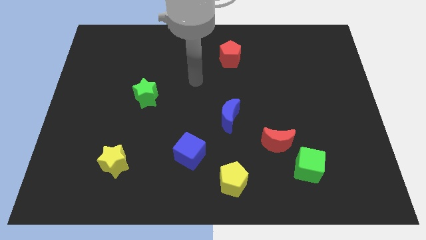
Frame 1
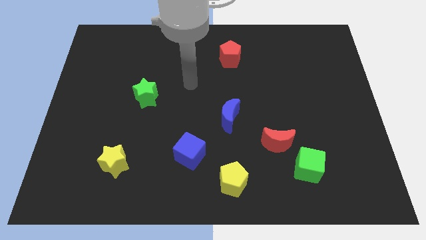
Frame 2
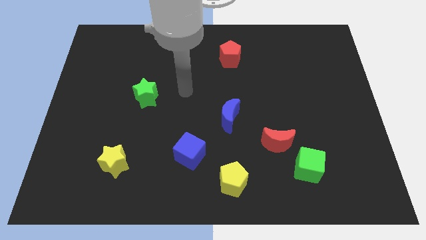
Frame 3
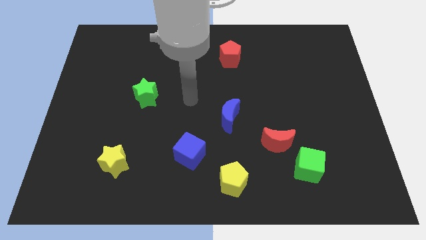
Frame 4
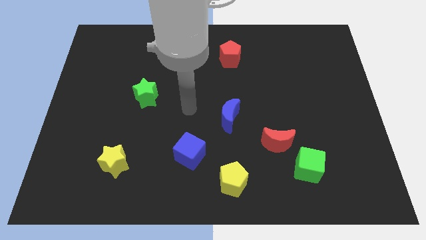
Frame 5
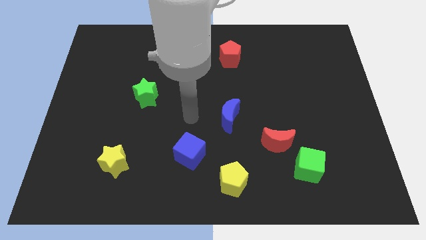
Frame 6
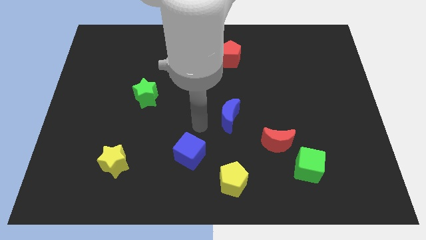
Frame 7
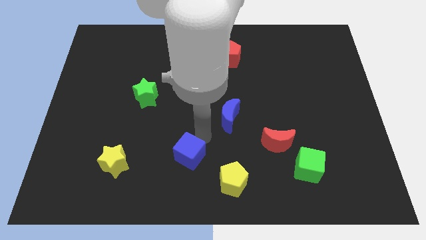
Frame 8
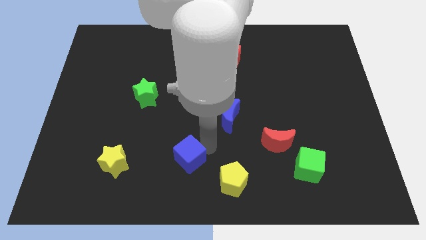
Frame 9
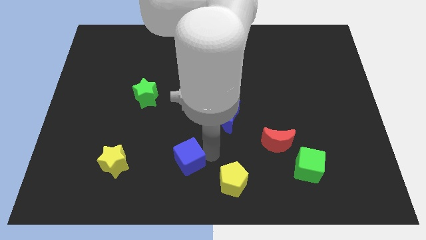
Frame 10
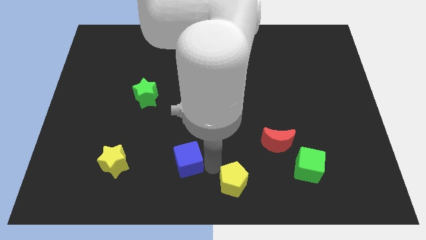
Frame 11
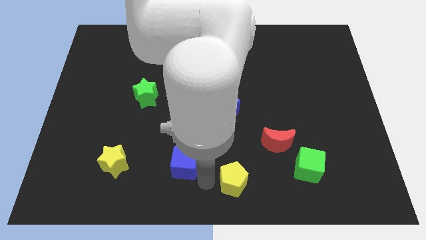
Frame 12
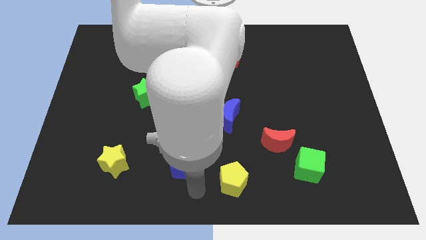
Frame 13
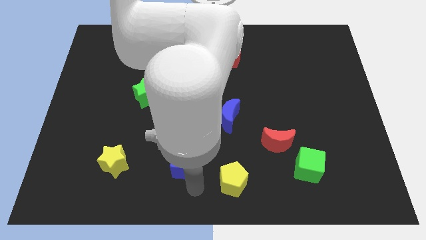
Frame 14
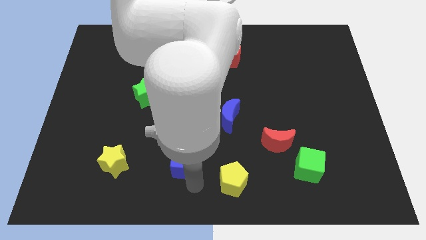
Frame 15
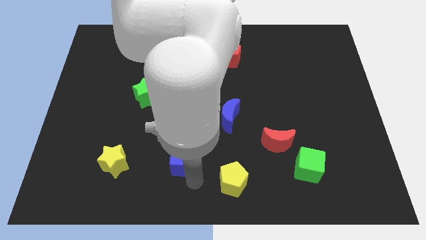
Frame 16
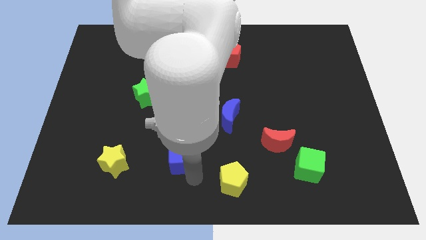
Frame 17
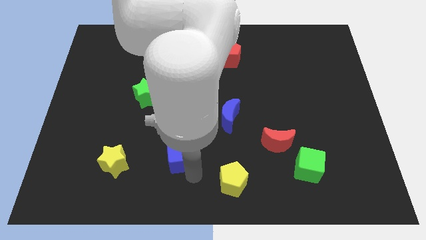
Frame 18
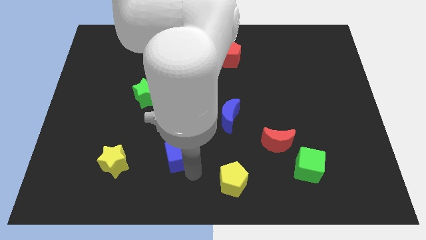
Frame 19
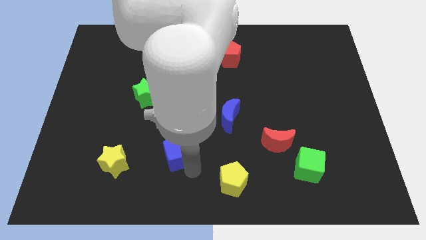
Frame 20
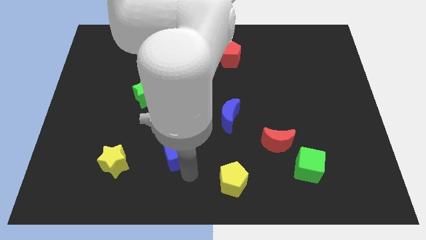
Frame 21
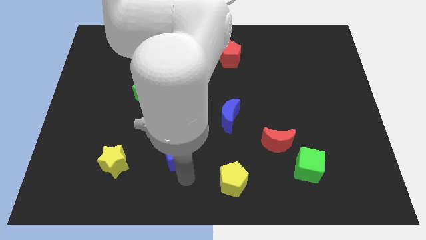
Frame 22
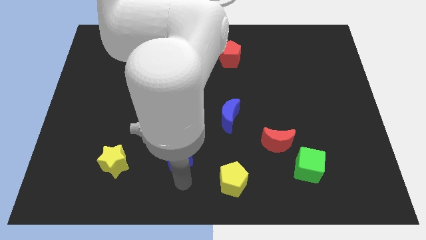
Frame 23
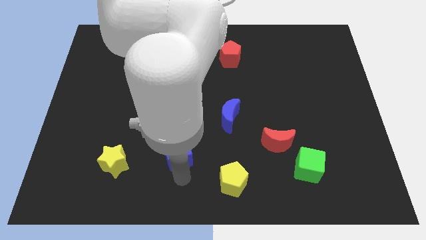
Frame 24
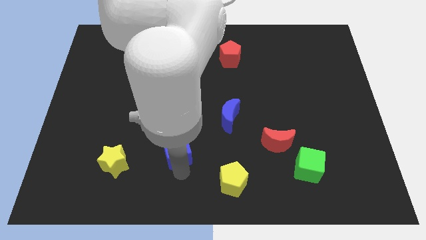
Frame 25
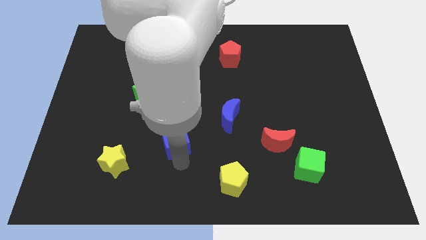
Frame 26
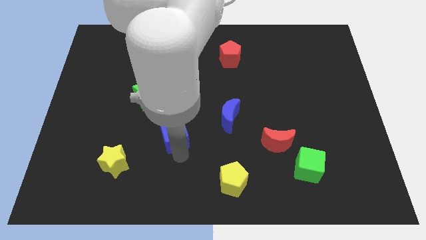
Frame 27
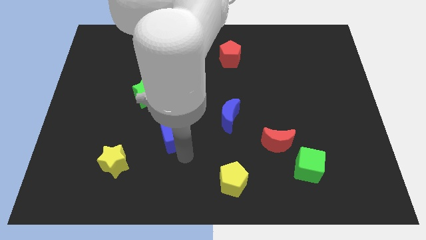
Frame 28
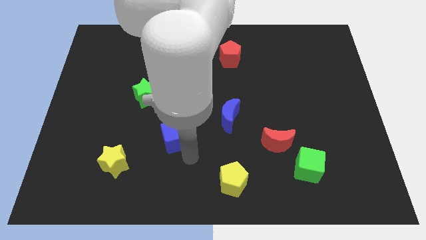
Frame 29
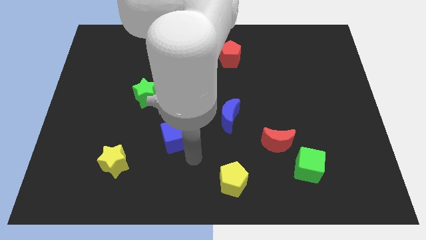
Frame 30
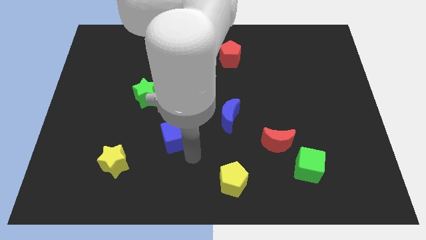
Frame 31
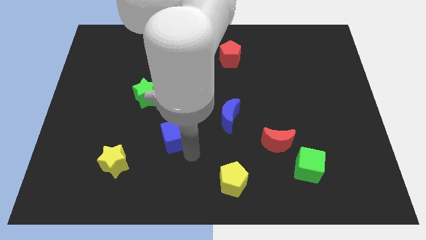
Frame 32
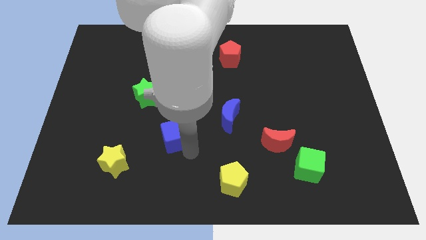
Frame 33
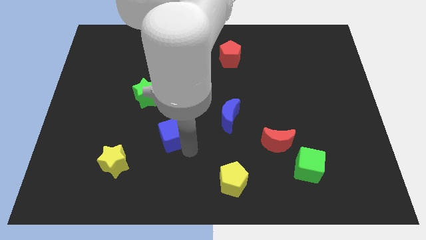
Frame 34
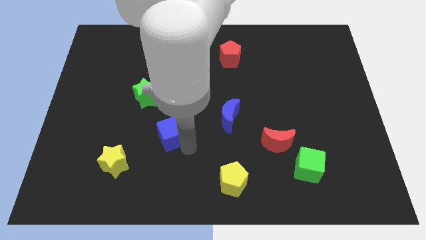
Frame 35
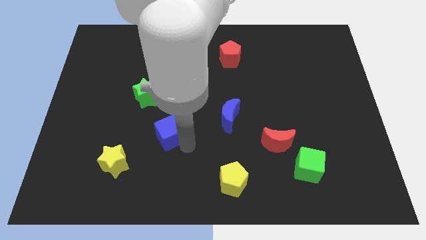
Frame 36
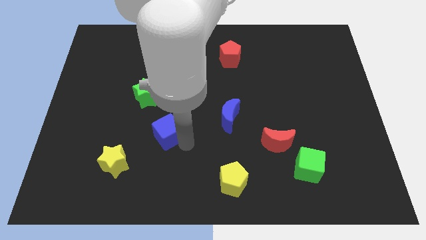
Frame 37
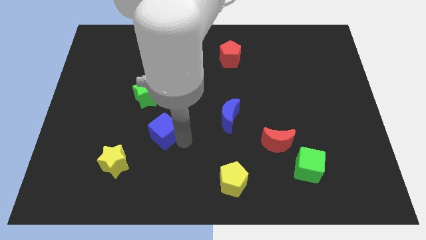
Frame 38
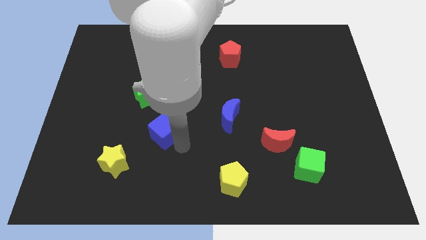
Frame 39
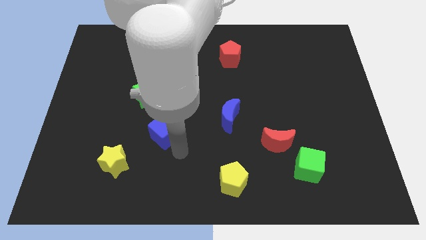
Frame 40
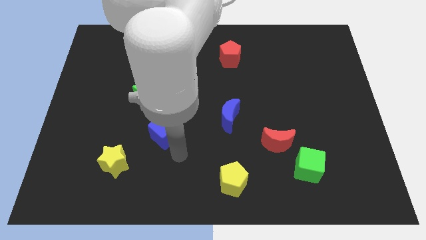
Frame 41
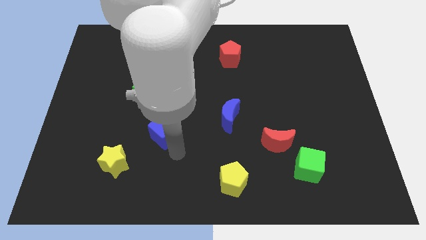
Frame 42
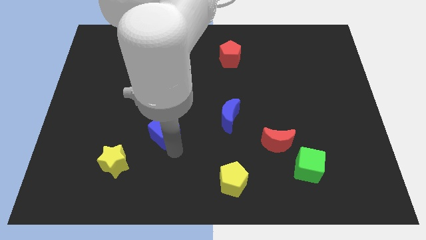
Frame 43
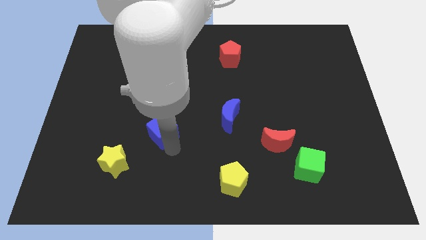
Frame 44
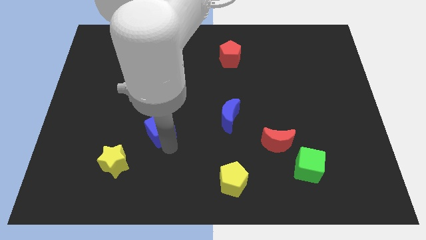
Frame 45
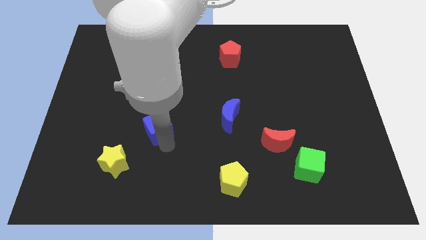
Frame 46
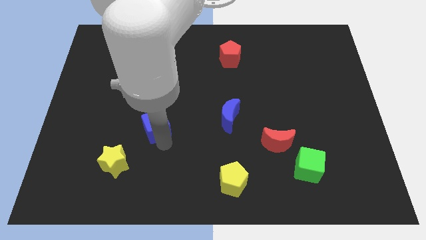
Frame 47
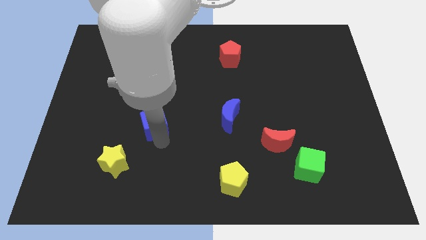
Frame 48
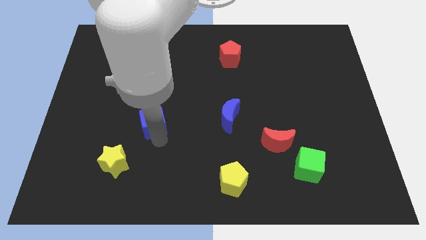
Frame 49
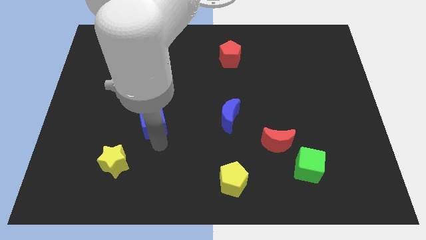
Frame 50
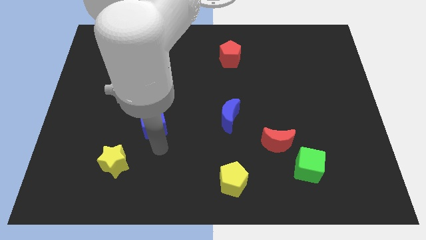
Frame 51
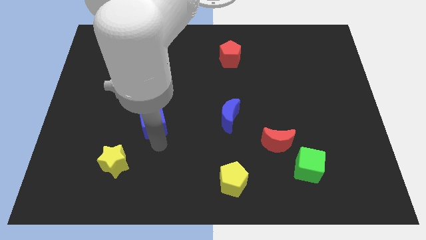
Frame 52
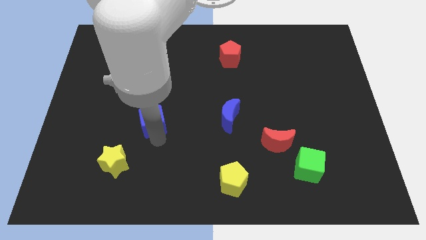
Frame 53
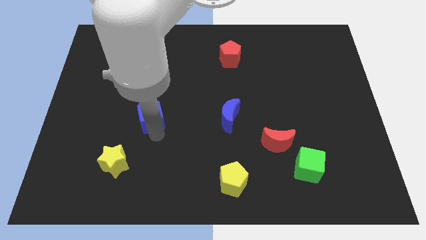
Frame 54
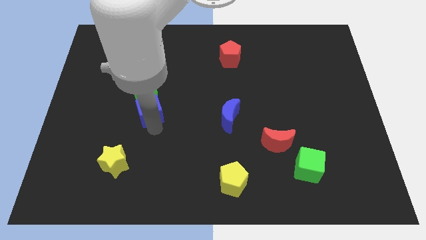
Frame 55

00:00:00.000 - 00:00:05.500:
put the blue cube to the green star

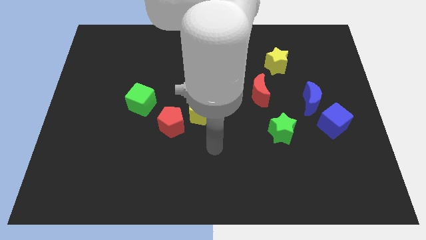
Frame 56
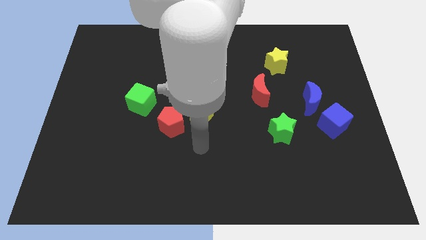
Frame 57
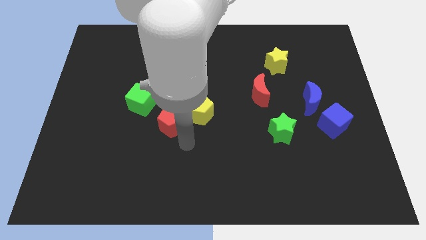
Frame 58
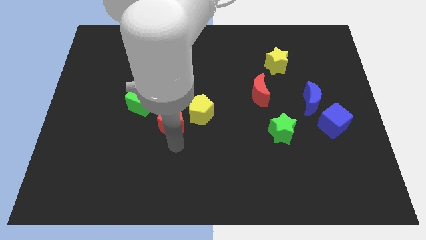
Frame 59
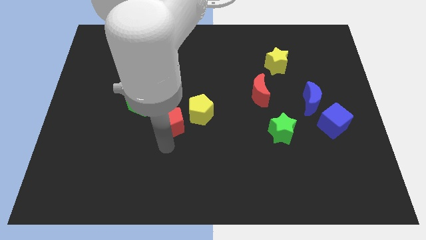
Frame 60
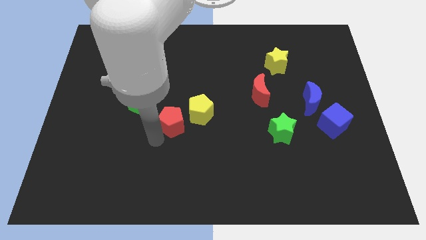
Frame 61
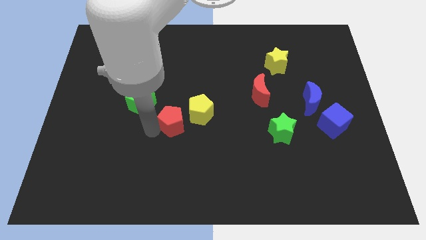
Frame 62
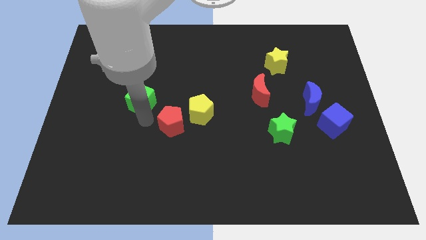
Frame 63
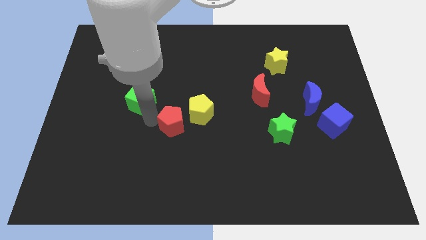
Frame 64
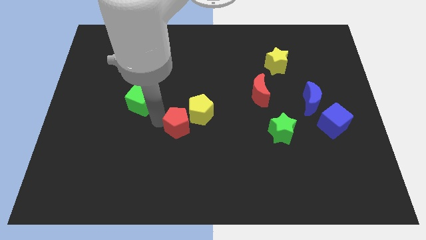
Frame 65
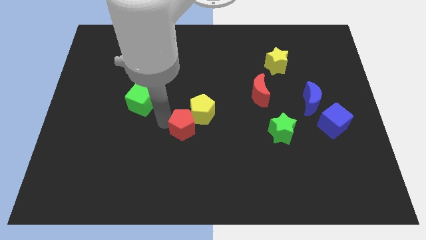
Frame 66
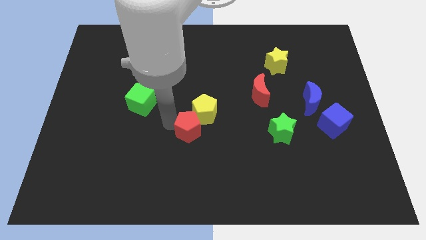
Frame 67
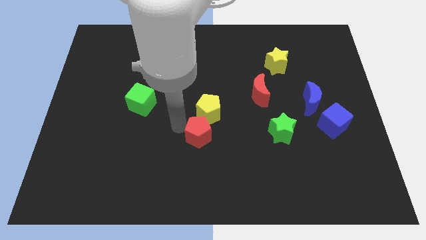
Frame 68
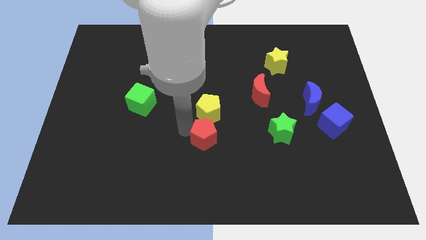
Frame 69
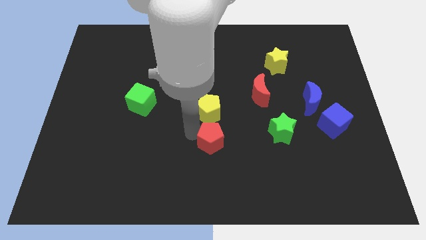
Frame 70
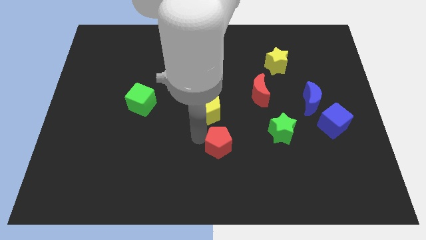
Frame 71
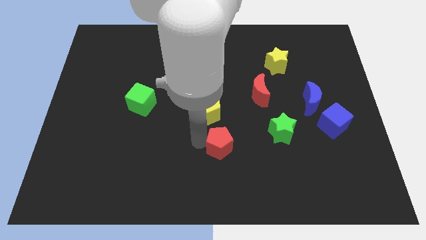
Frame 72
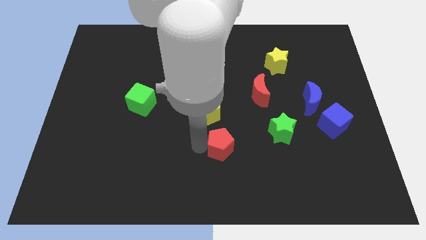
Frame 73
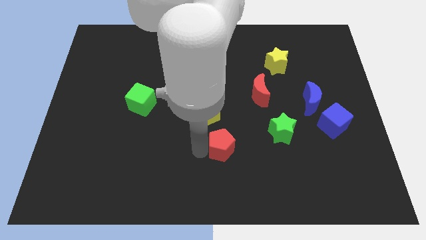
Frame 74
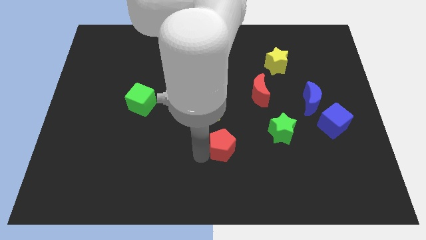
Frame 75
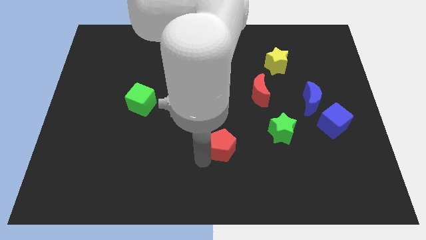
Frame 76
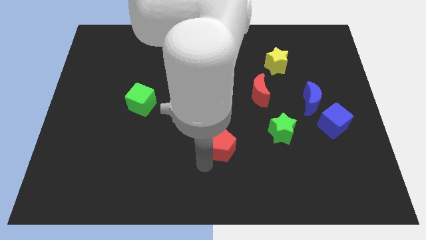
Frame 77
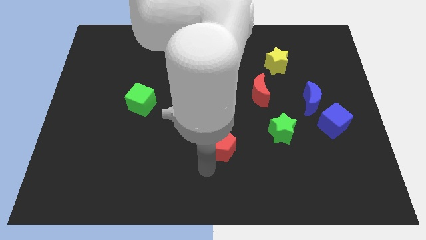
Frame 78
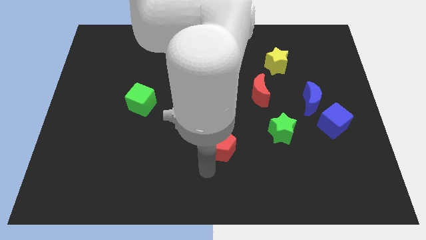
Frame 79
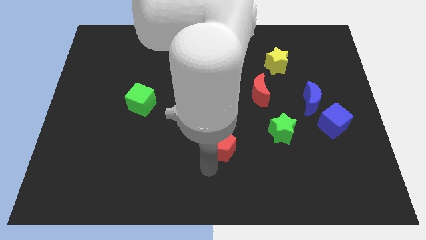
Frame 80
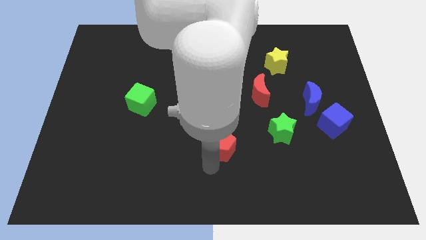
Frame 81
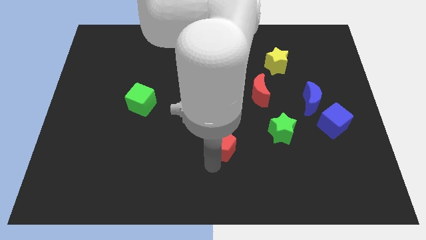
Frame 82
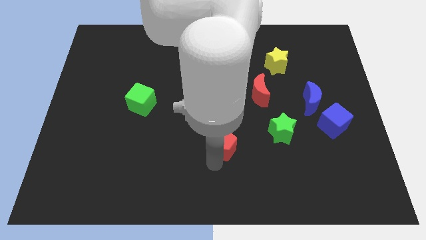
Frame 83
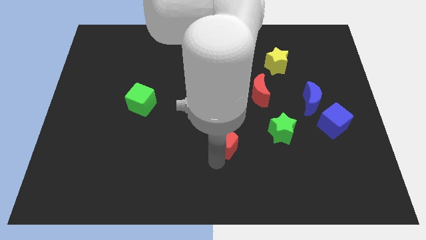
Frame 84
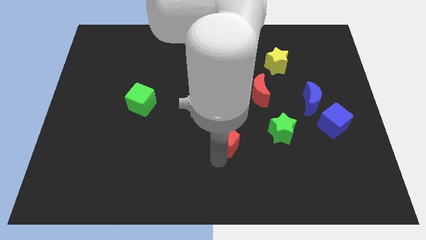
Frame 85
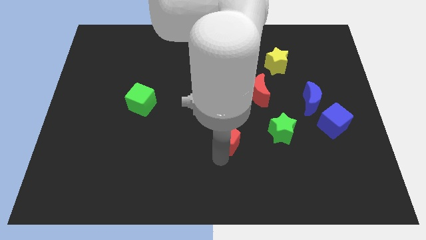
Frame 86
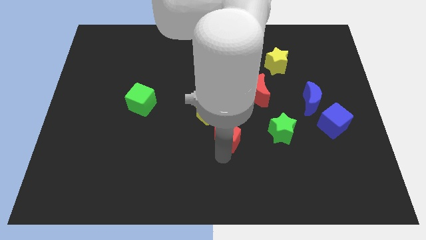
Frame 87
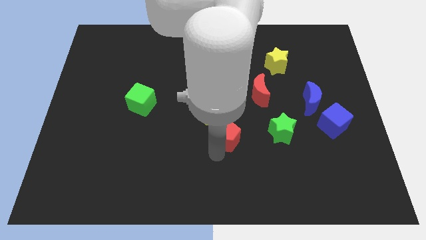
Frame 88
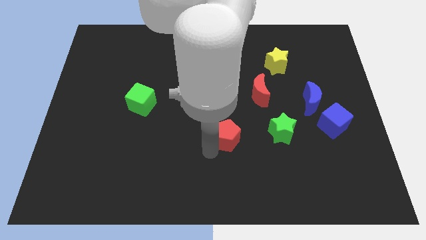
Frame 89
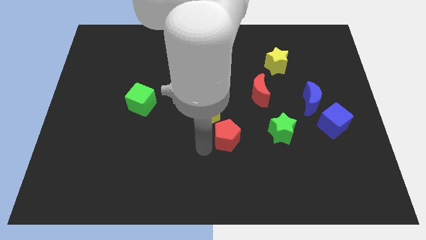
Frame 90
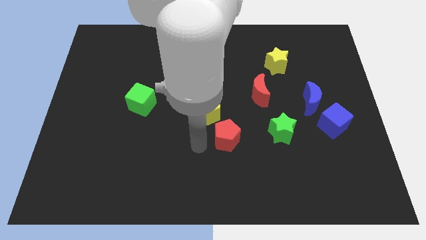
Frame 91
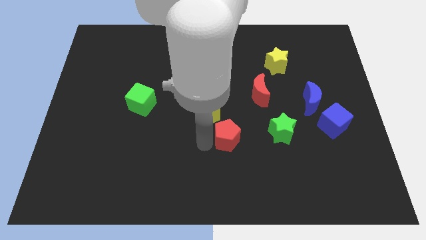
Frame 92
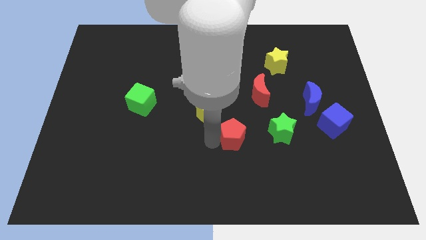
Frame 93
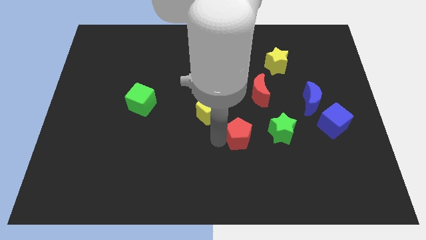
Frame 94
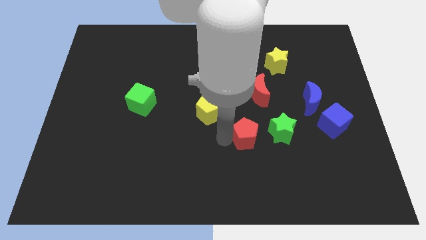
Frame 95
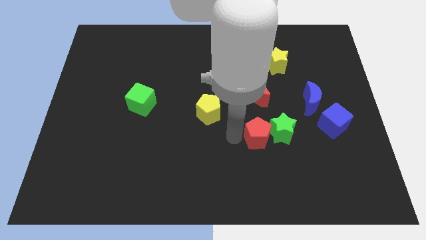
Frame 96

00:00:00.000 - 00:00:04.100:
put the red pentagon close to the green star
